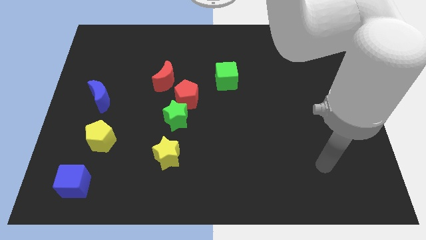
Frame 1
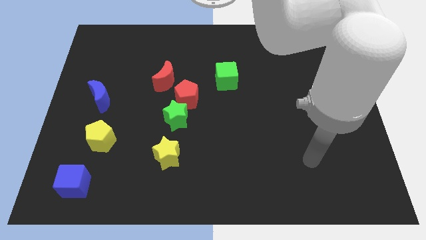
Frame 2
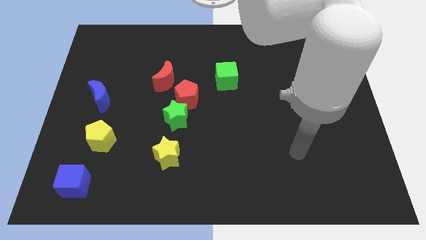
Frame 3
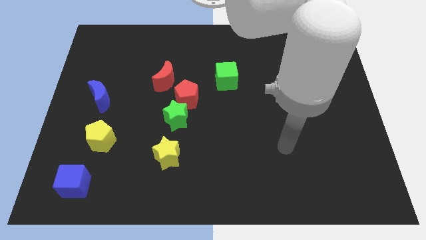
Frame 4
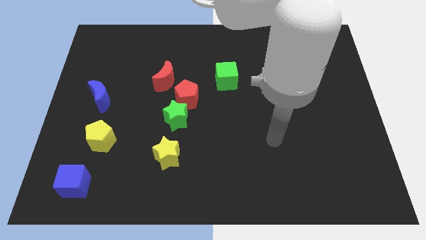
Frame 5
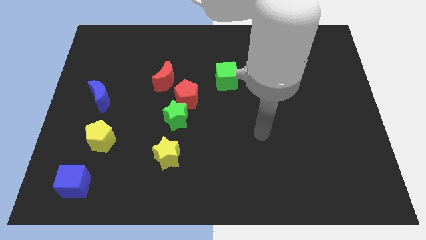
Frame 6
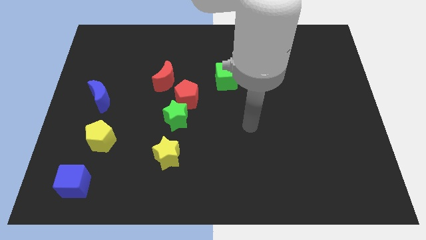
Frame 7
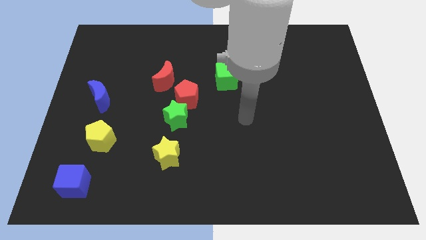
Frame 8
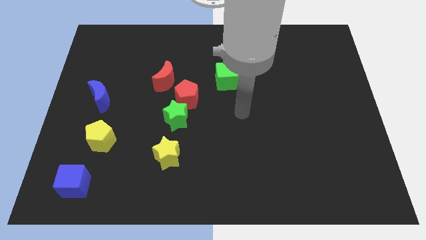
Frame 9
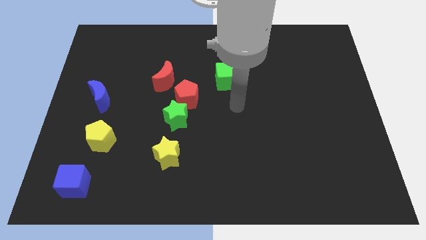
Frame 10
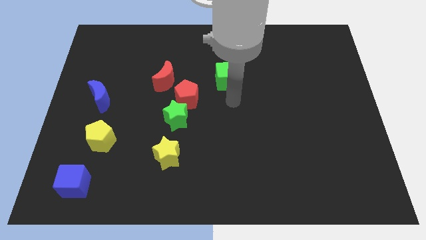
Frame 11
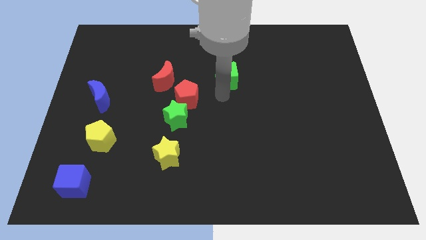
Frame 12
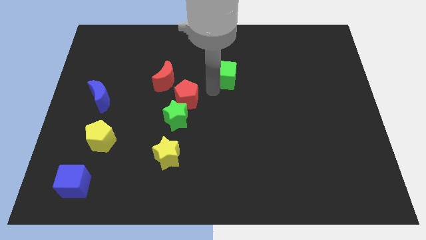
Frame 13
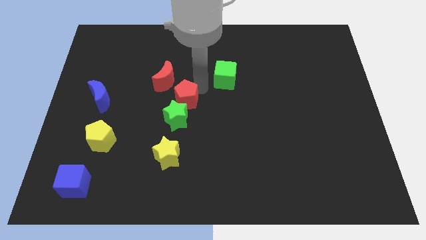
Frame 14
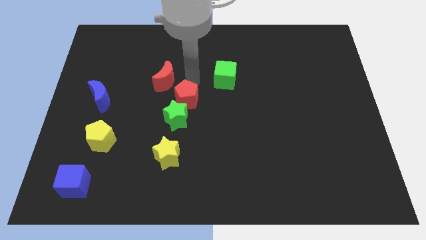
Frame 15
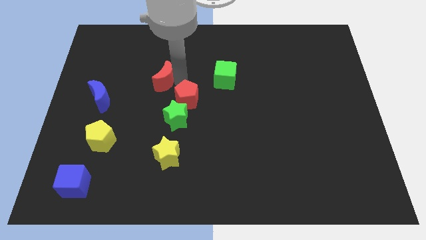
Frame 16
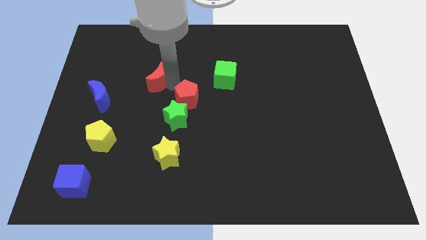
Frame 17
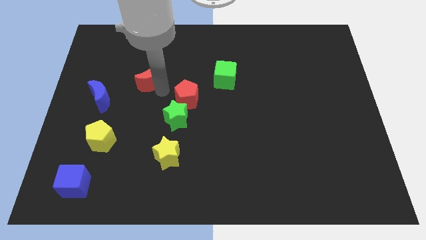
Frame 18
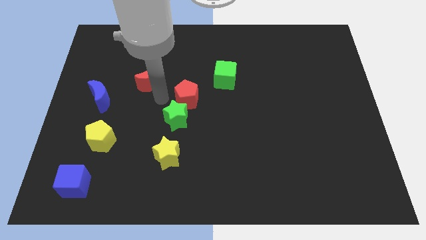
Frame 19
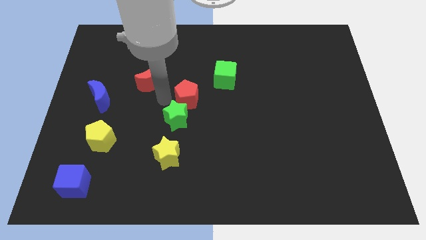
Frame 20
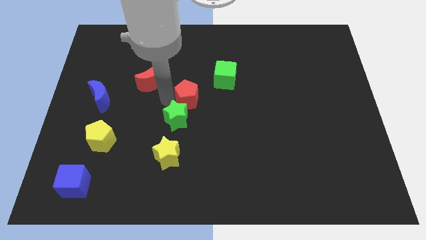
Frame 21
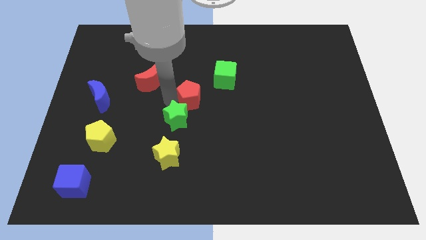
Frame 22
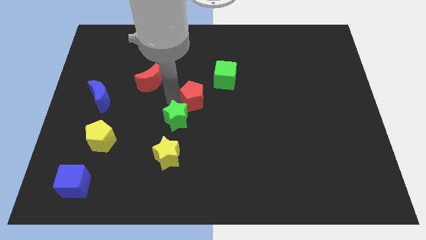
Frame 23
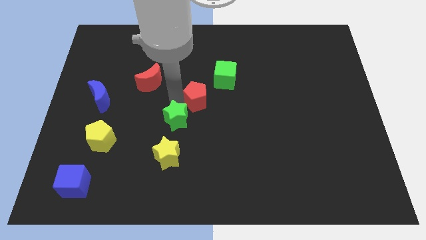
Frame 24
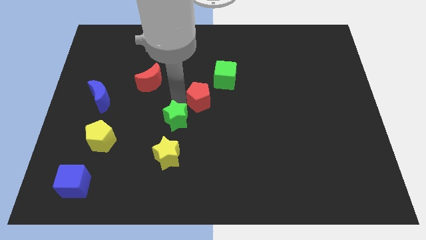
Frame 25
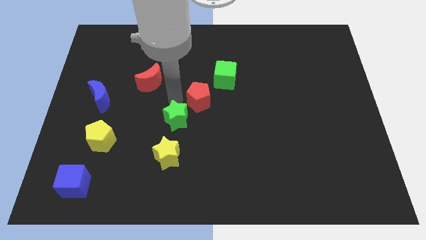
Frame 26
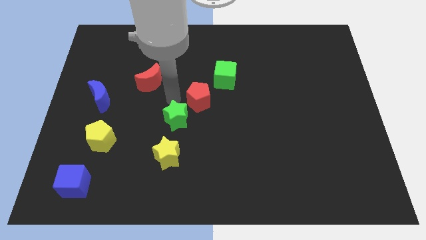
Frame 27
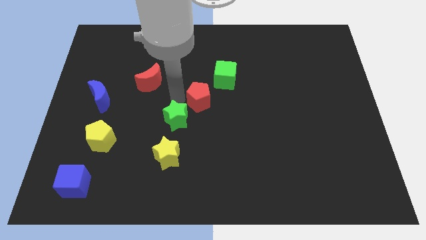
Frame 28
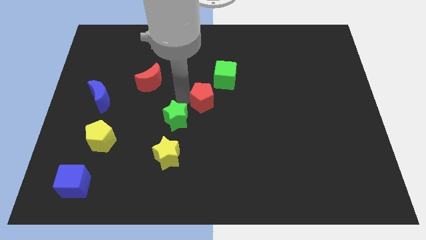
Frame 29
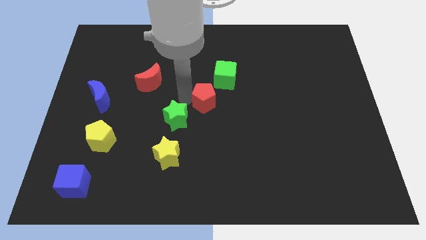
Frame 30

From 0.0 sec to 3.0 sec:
move the red pentagon away from the green star and red moon

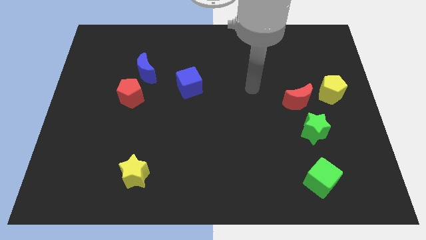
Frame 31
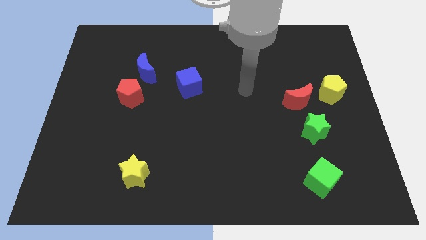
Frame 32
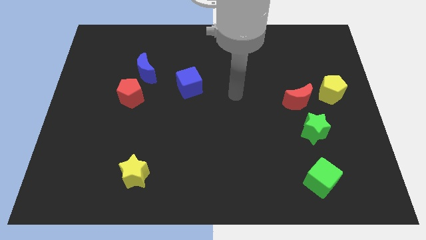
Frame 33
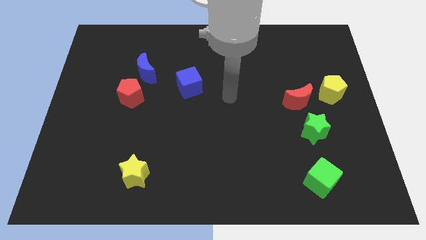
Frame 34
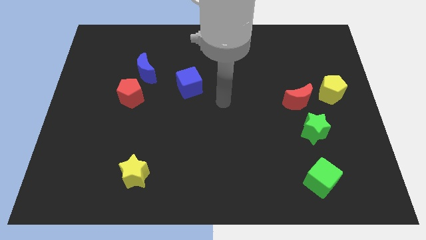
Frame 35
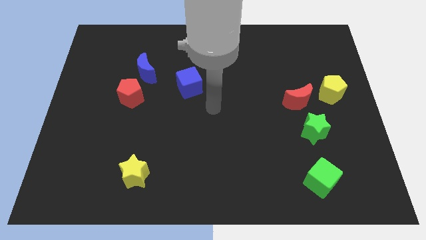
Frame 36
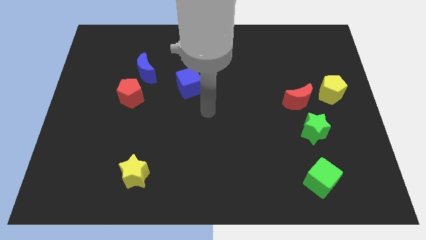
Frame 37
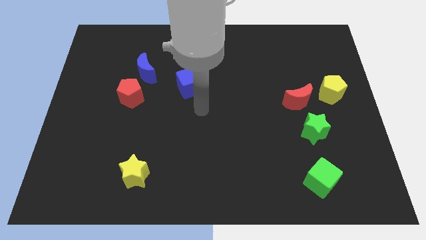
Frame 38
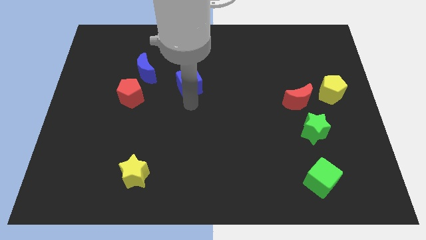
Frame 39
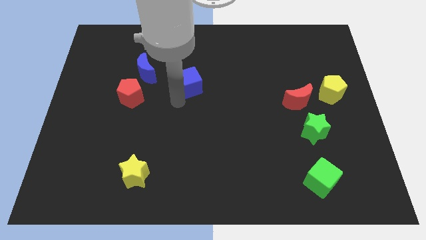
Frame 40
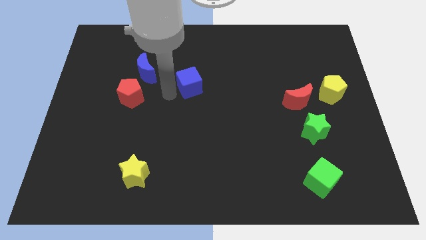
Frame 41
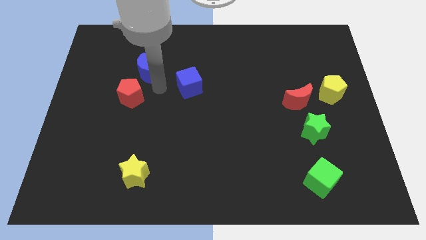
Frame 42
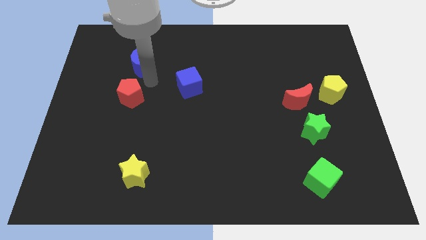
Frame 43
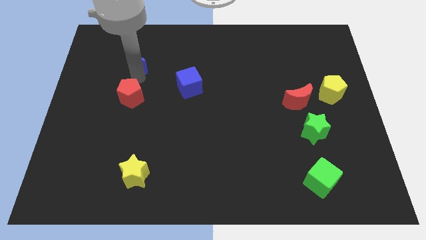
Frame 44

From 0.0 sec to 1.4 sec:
separate the red pentagon from the blue moon

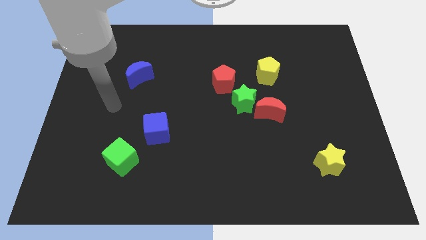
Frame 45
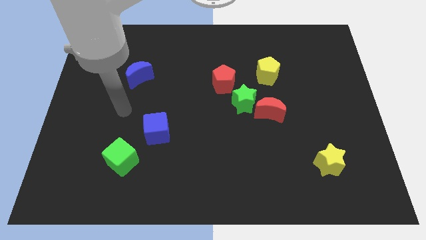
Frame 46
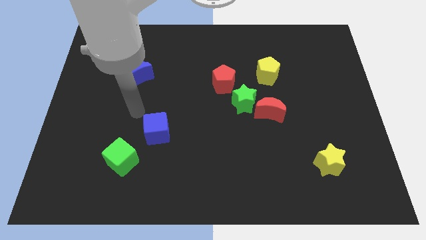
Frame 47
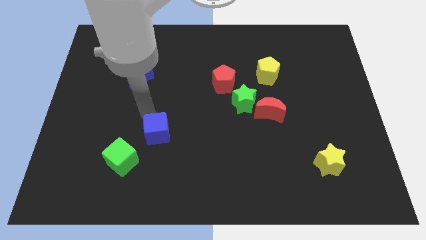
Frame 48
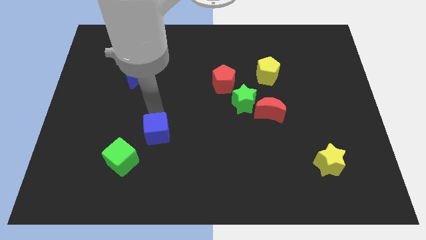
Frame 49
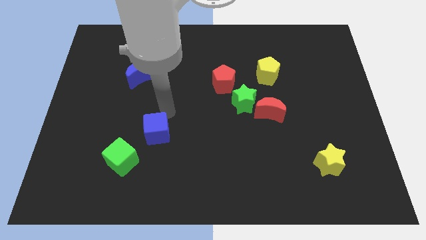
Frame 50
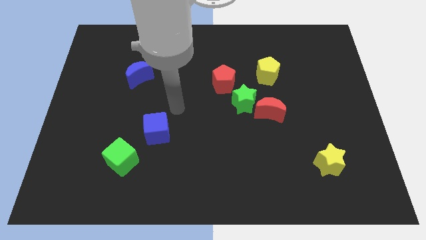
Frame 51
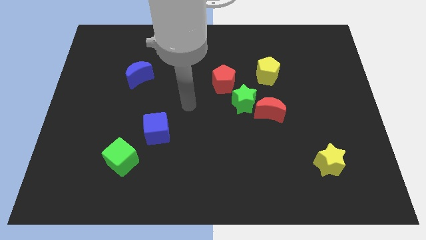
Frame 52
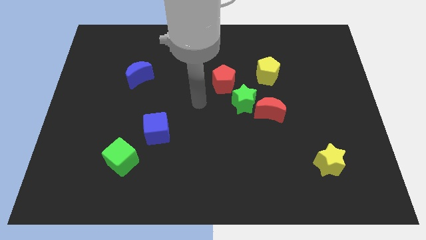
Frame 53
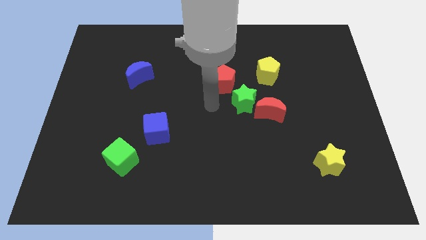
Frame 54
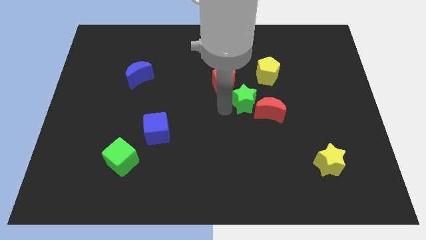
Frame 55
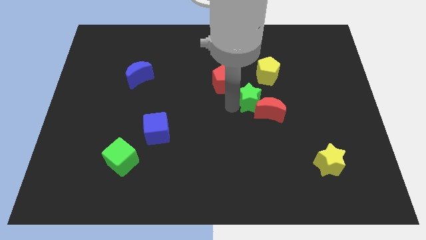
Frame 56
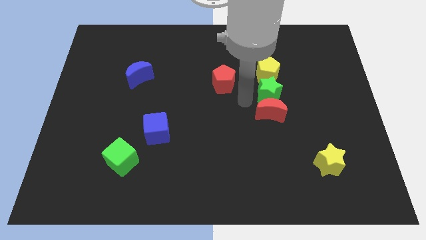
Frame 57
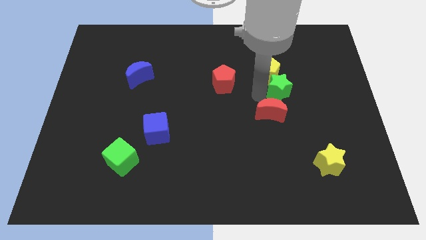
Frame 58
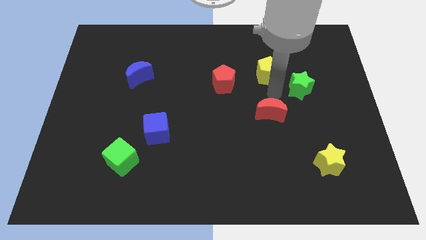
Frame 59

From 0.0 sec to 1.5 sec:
separate the red moon from the green star

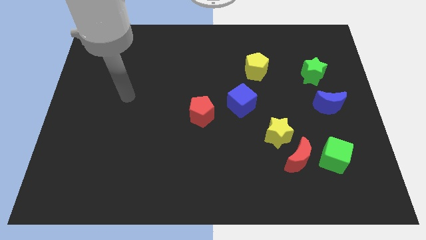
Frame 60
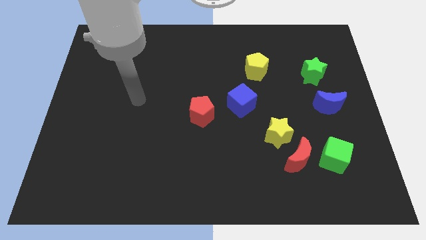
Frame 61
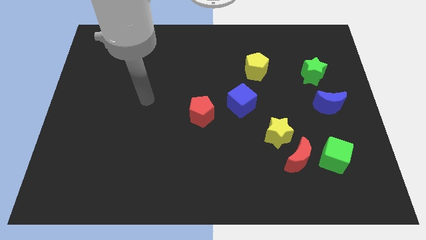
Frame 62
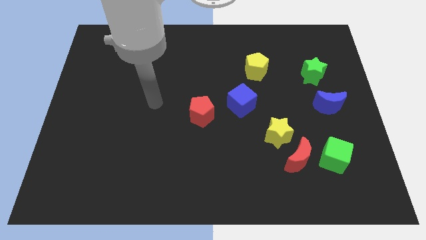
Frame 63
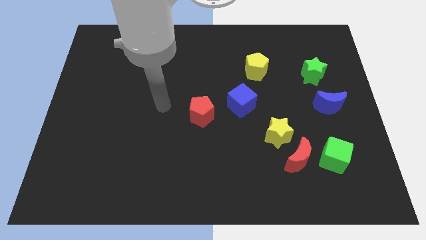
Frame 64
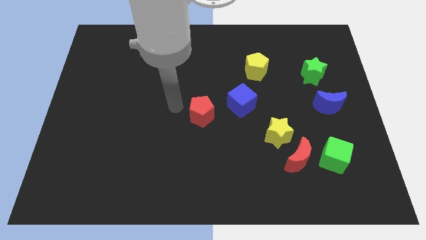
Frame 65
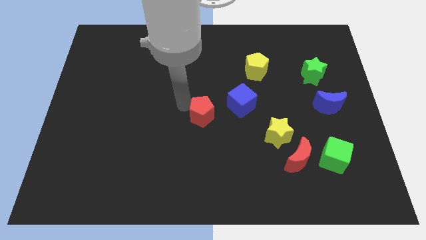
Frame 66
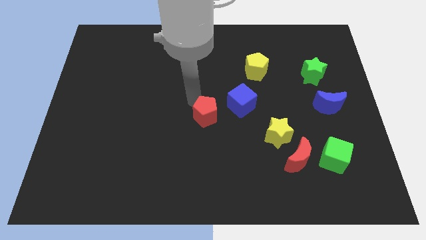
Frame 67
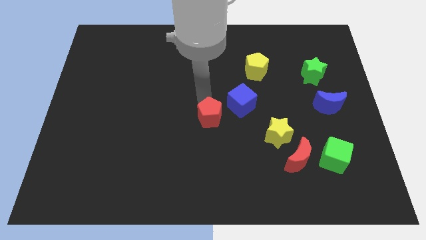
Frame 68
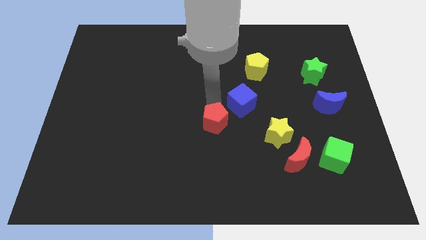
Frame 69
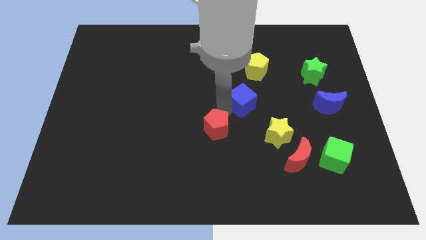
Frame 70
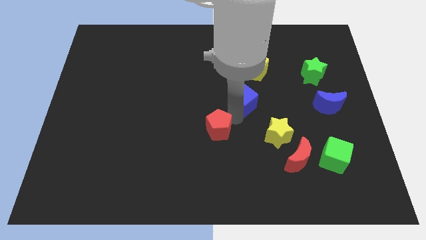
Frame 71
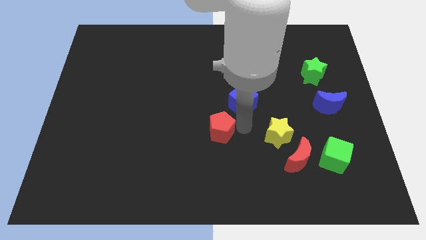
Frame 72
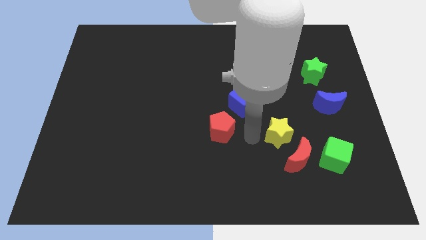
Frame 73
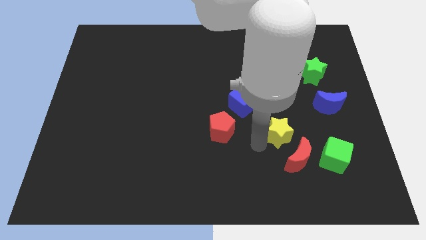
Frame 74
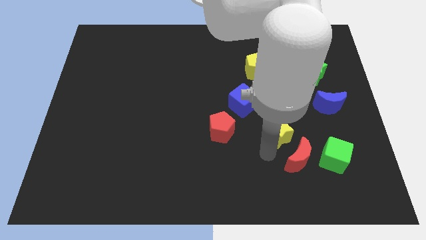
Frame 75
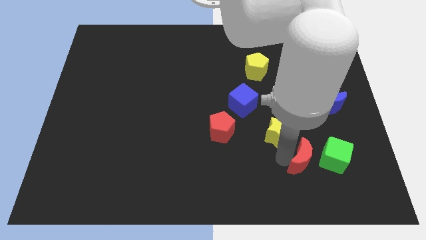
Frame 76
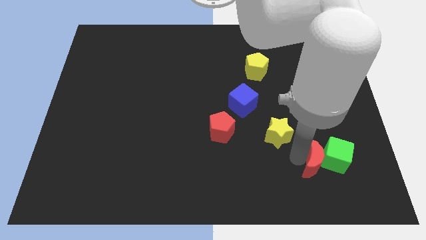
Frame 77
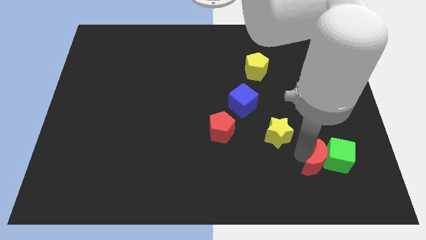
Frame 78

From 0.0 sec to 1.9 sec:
move the yellow star away from the red moon

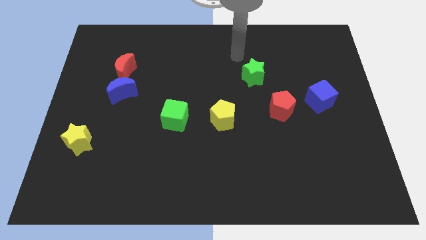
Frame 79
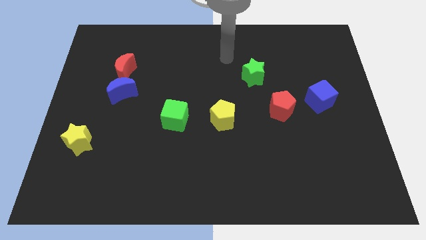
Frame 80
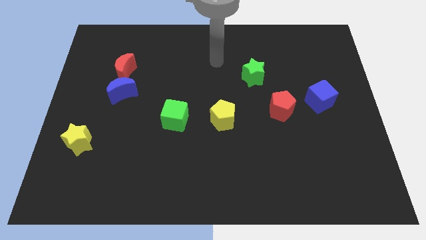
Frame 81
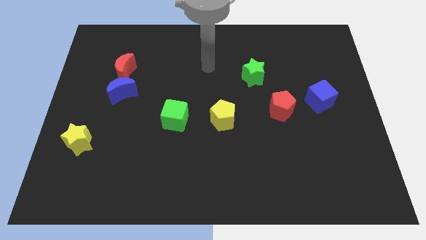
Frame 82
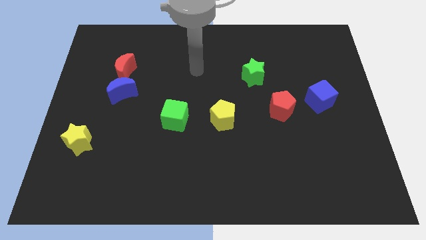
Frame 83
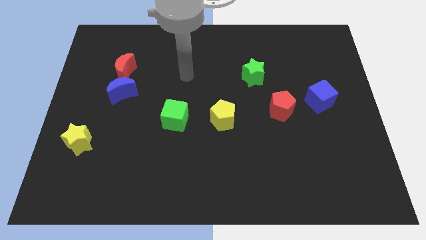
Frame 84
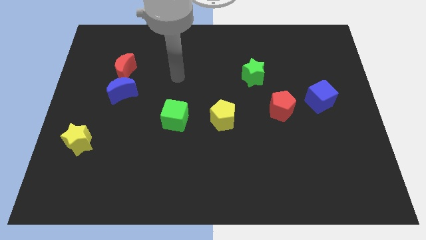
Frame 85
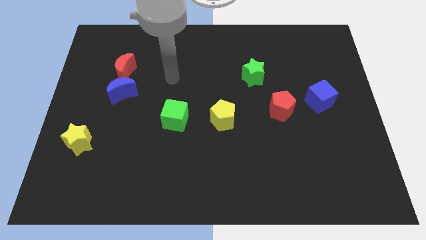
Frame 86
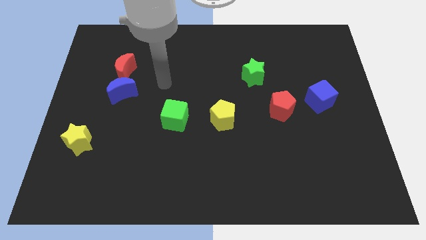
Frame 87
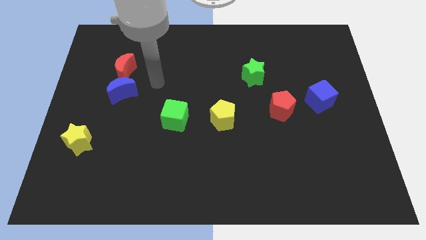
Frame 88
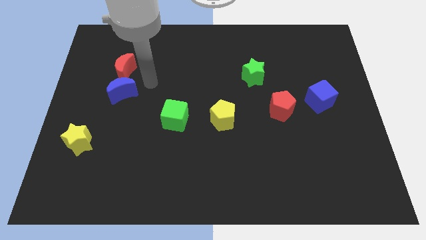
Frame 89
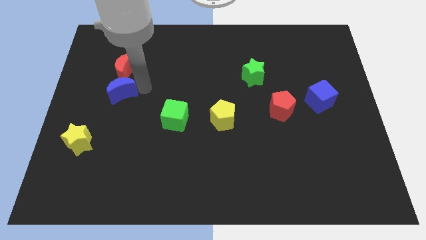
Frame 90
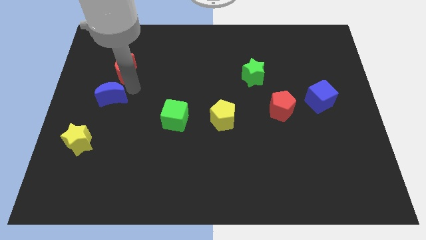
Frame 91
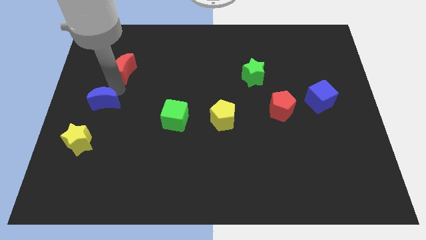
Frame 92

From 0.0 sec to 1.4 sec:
move the red moon away from the blue moon

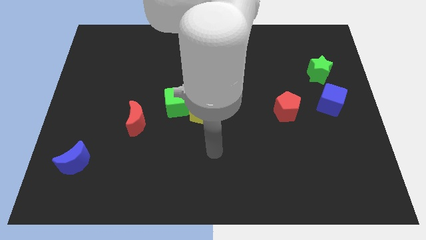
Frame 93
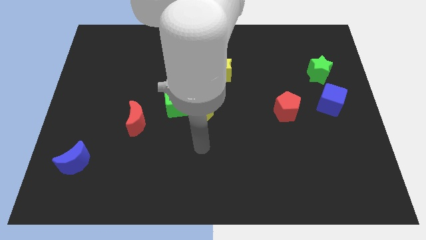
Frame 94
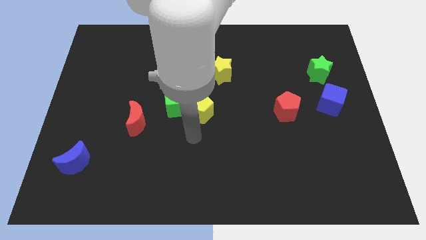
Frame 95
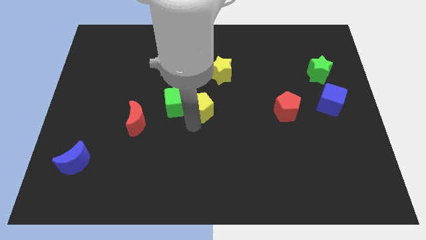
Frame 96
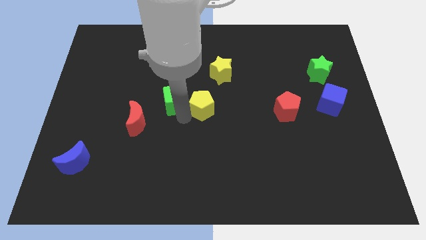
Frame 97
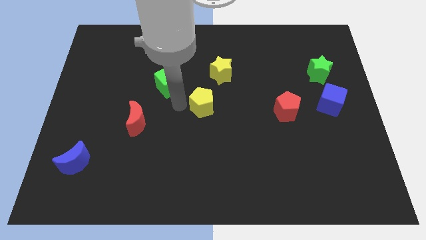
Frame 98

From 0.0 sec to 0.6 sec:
separate the yellow pentagon from the green cube
